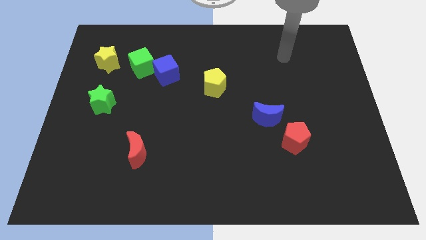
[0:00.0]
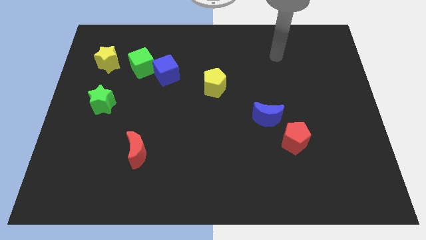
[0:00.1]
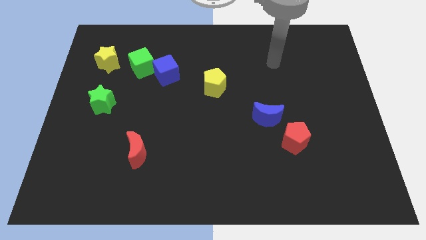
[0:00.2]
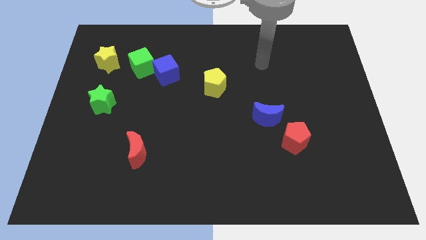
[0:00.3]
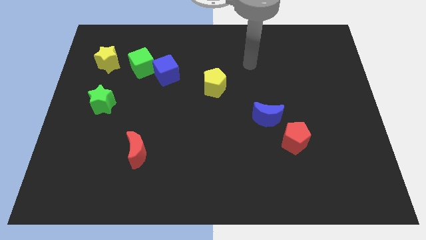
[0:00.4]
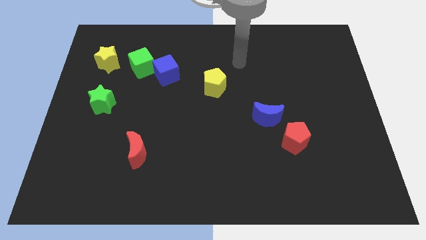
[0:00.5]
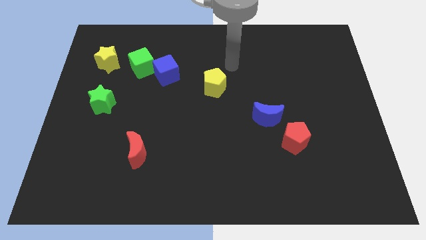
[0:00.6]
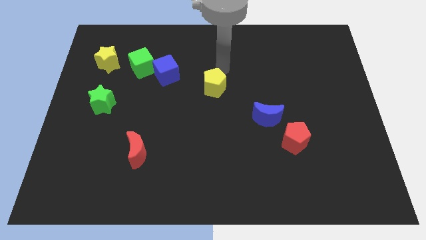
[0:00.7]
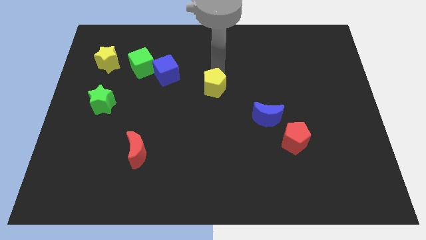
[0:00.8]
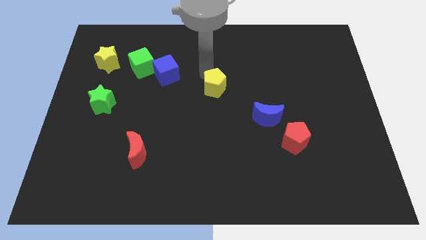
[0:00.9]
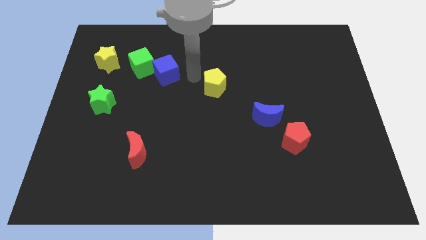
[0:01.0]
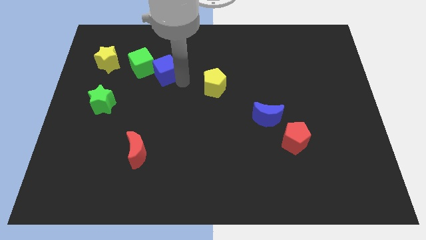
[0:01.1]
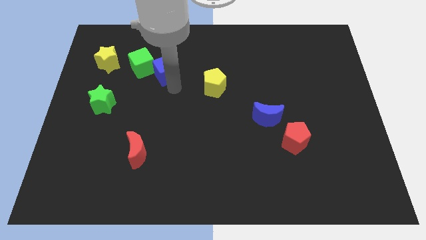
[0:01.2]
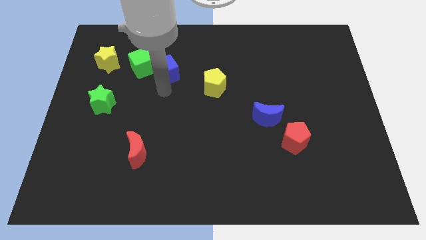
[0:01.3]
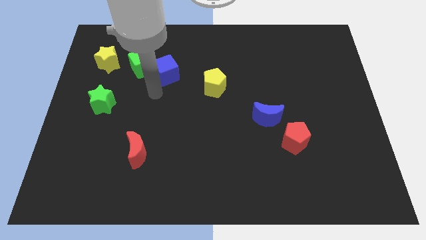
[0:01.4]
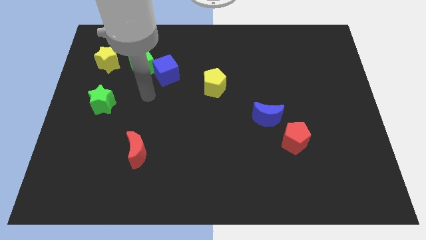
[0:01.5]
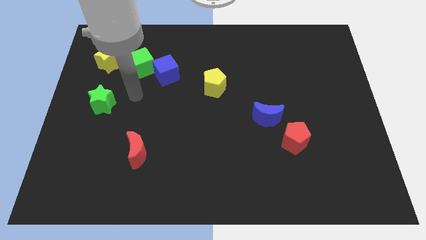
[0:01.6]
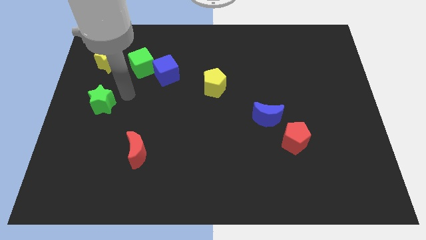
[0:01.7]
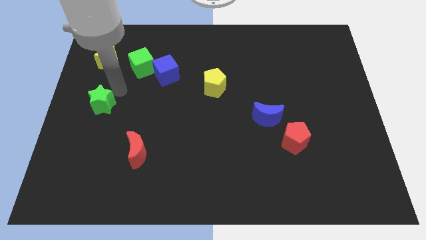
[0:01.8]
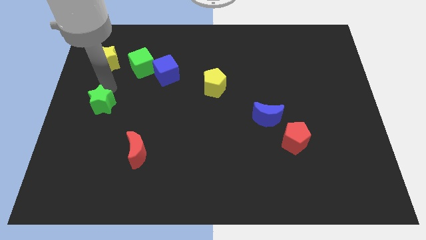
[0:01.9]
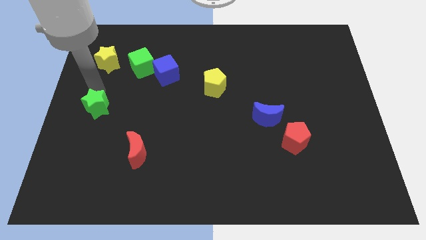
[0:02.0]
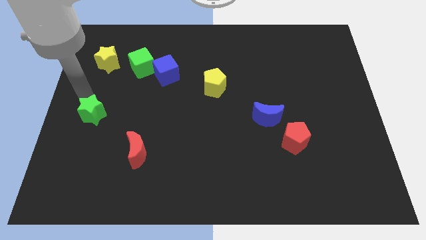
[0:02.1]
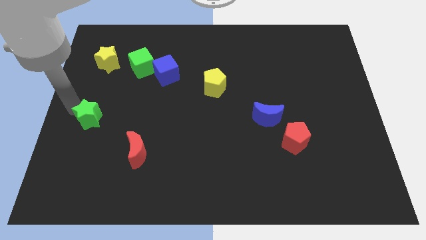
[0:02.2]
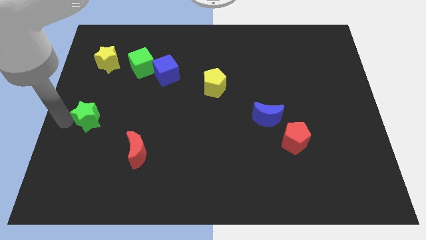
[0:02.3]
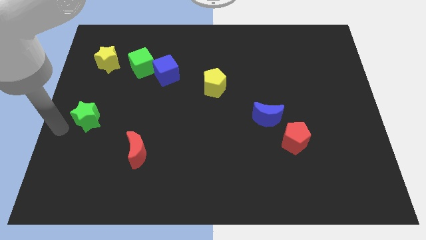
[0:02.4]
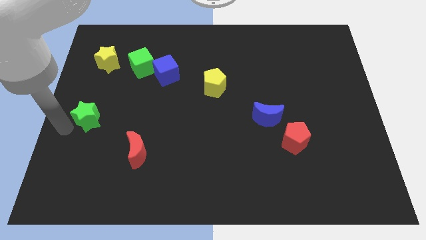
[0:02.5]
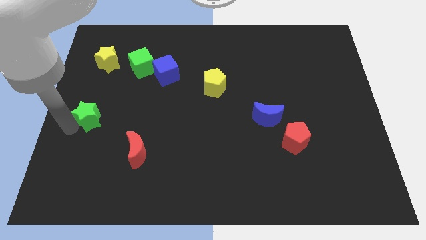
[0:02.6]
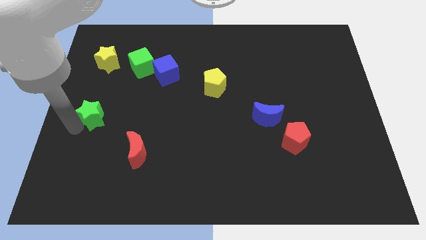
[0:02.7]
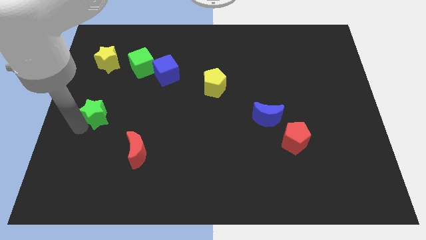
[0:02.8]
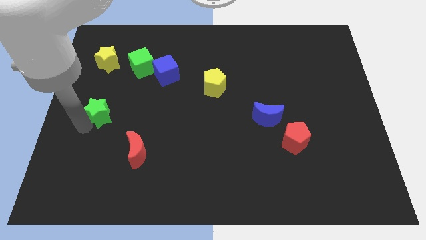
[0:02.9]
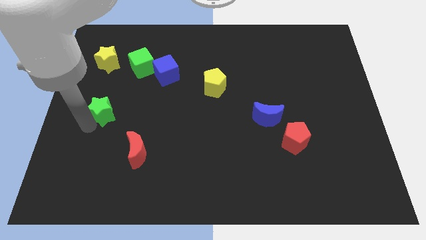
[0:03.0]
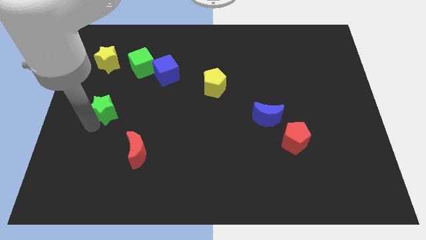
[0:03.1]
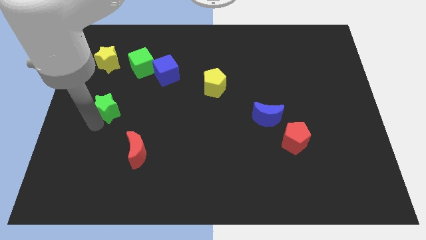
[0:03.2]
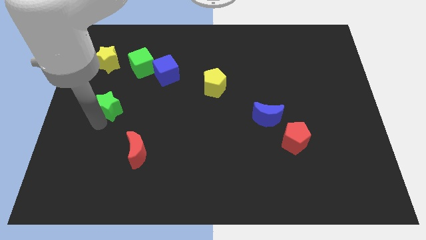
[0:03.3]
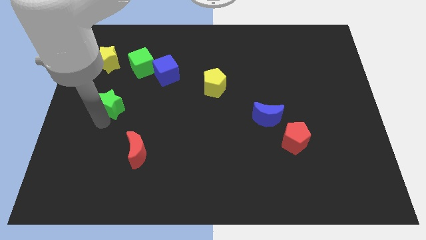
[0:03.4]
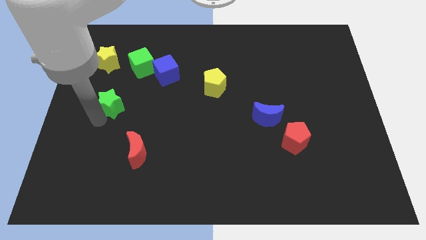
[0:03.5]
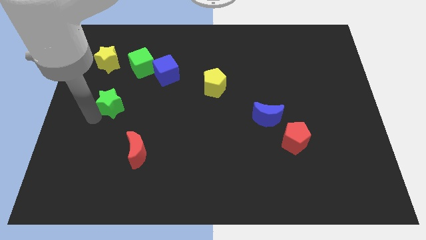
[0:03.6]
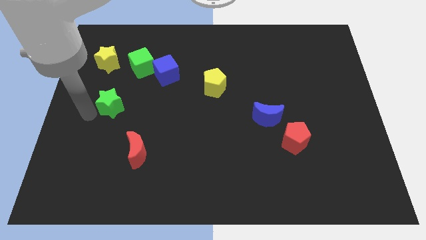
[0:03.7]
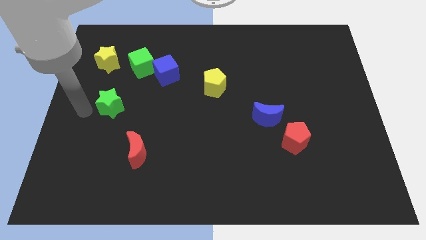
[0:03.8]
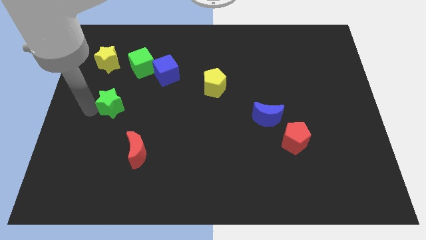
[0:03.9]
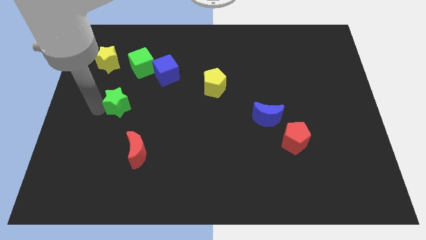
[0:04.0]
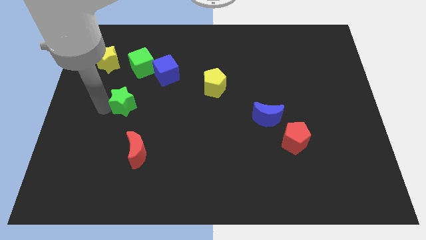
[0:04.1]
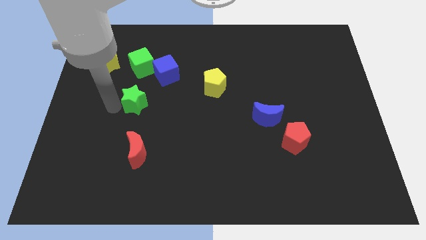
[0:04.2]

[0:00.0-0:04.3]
move the green star to the right slightly

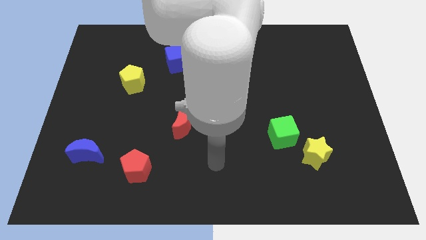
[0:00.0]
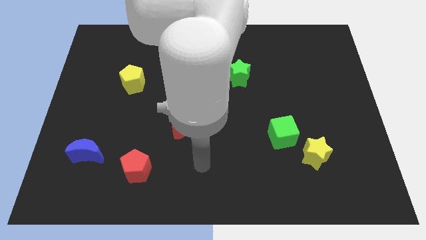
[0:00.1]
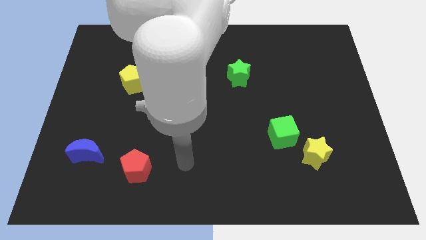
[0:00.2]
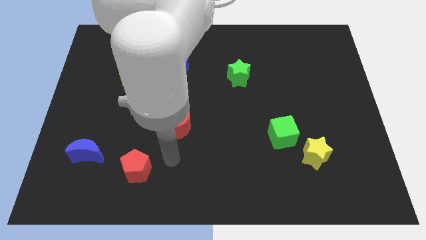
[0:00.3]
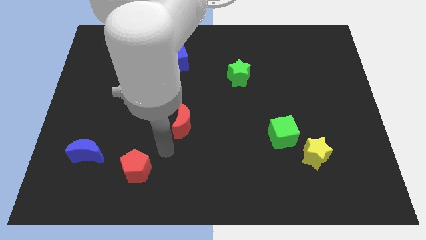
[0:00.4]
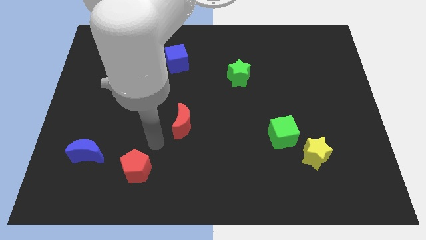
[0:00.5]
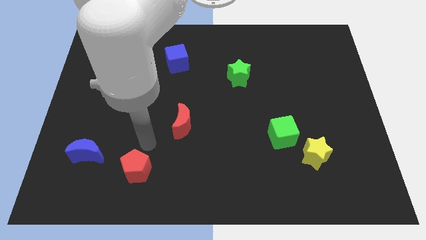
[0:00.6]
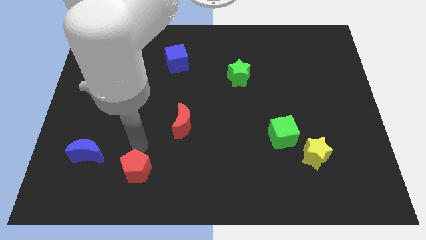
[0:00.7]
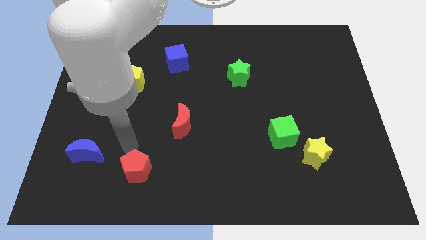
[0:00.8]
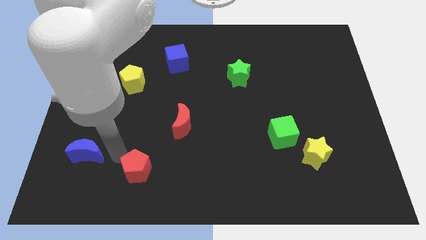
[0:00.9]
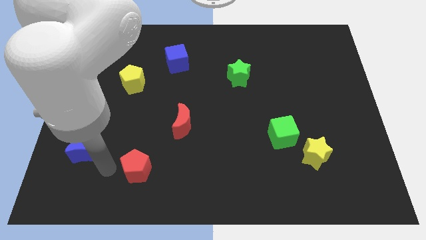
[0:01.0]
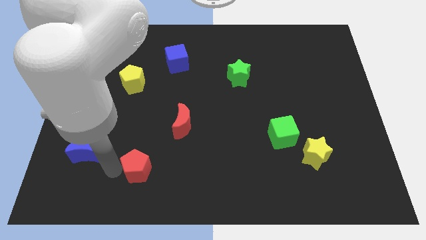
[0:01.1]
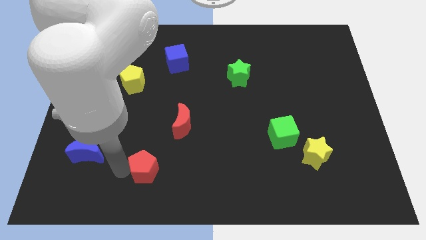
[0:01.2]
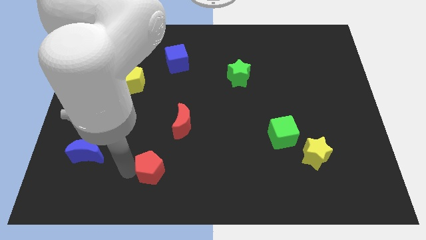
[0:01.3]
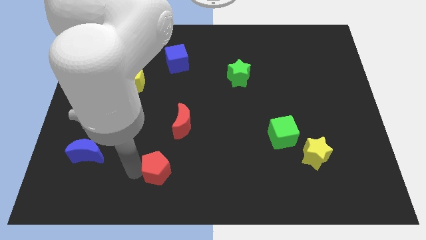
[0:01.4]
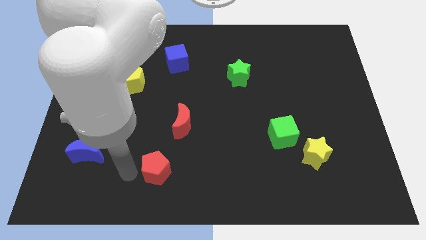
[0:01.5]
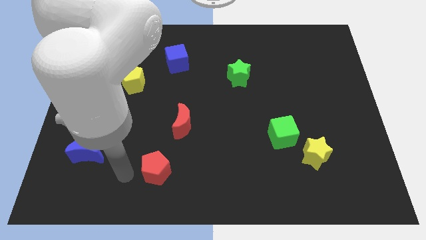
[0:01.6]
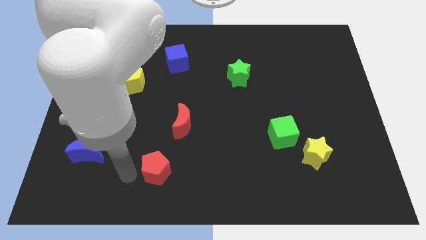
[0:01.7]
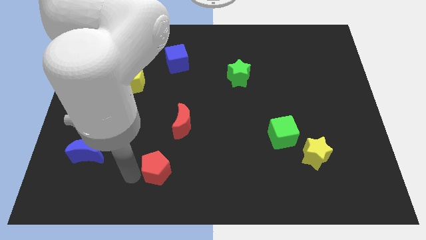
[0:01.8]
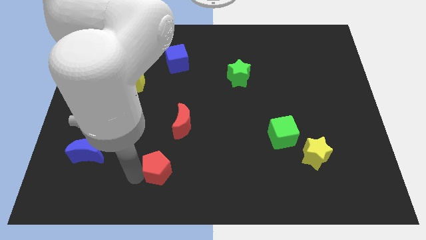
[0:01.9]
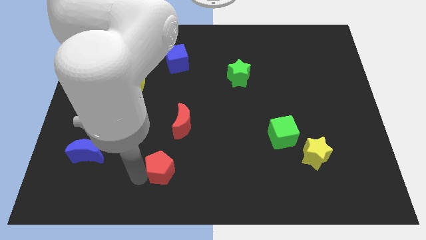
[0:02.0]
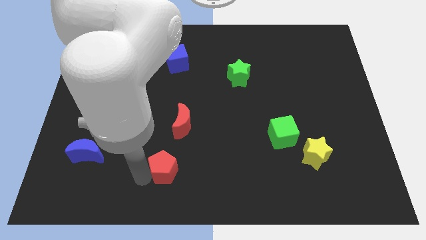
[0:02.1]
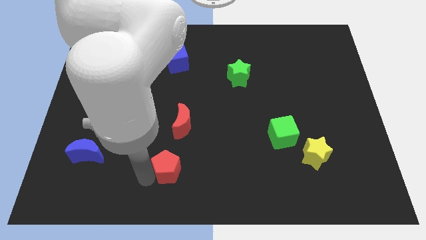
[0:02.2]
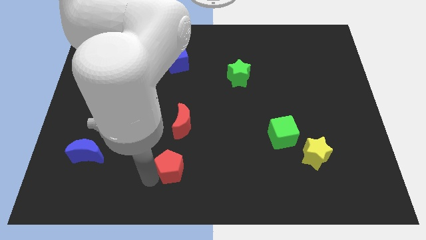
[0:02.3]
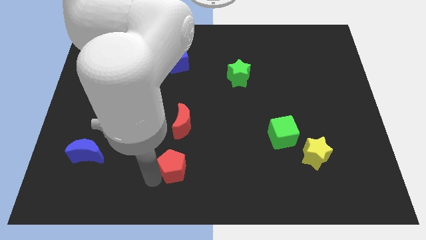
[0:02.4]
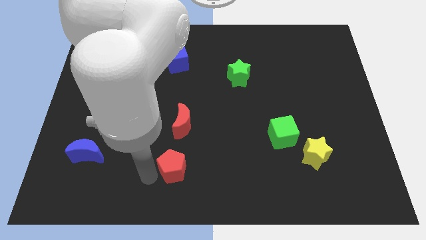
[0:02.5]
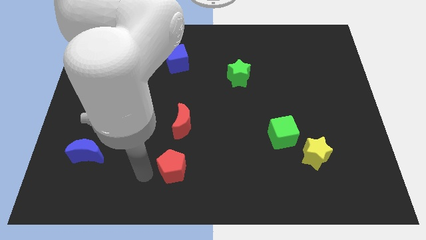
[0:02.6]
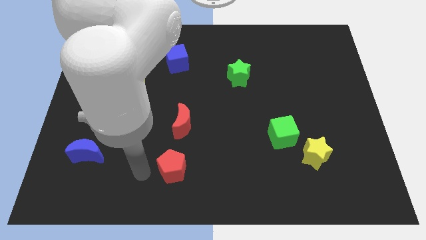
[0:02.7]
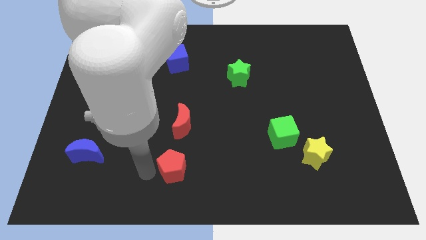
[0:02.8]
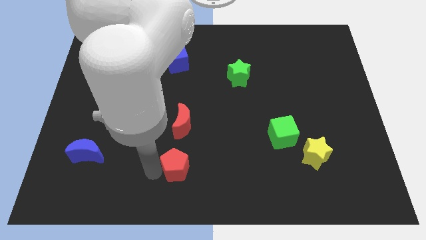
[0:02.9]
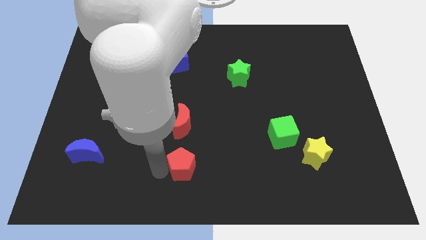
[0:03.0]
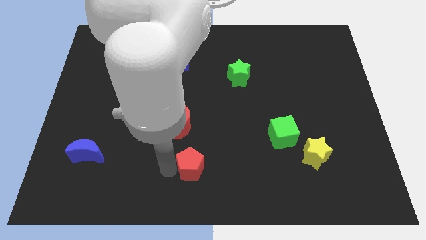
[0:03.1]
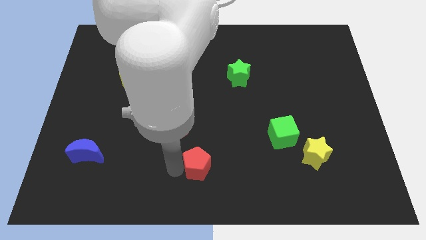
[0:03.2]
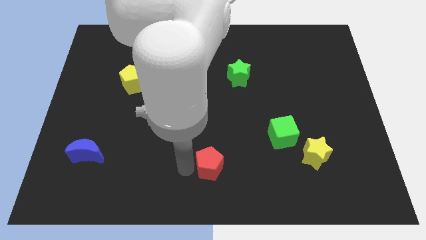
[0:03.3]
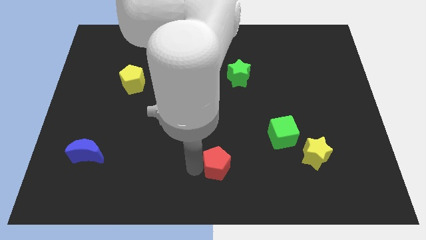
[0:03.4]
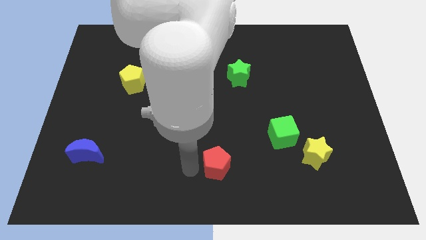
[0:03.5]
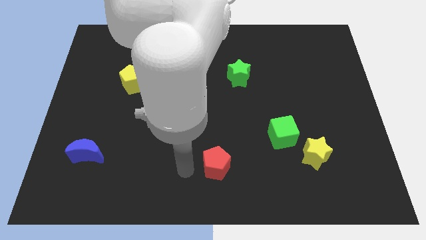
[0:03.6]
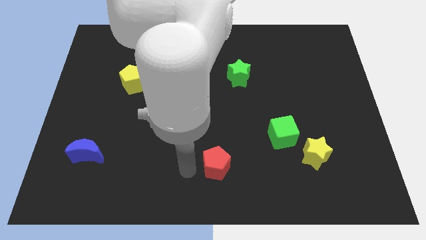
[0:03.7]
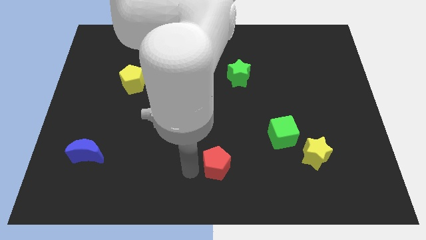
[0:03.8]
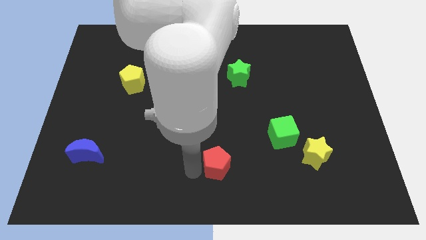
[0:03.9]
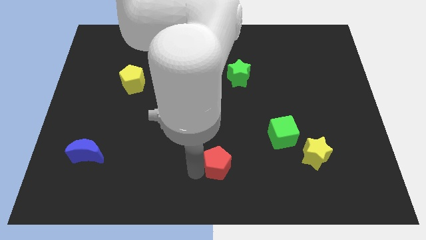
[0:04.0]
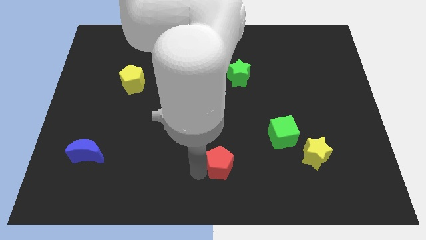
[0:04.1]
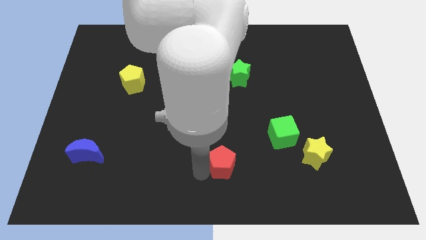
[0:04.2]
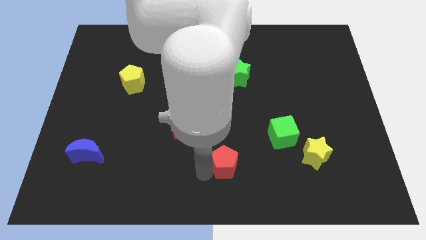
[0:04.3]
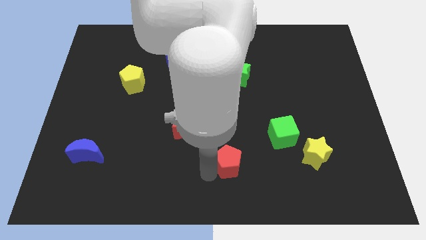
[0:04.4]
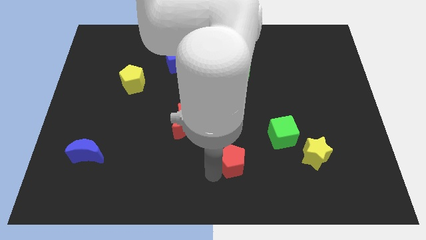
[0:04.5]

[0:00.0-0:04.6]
move the red pentagon to the right
